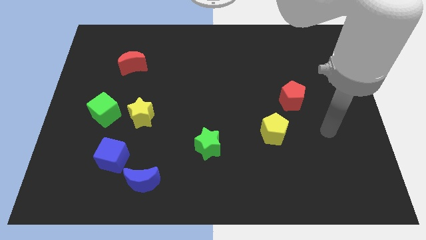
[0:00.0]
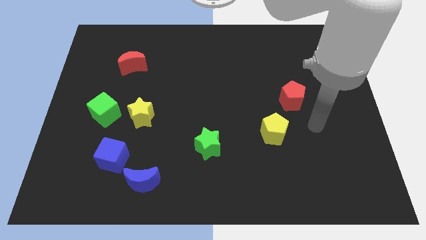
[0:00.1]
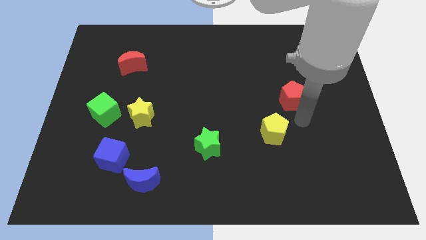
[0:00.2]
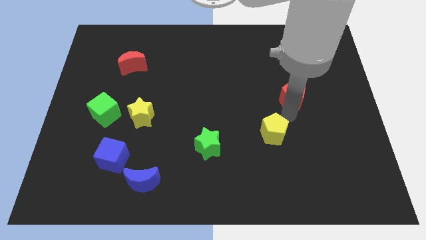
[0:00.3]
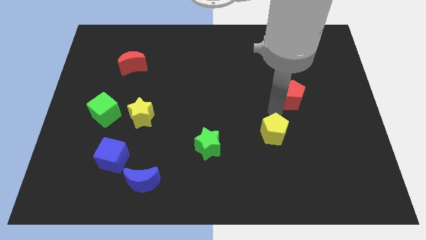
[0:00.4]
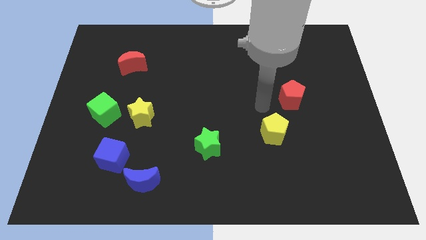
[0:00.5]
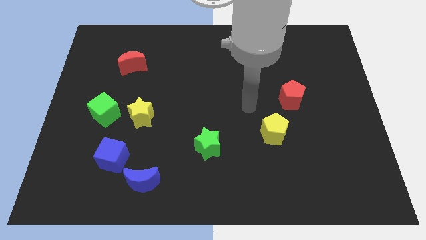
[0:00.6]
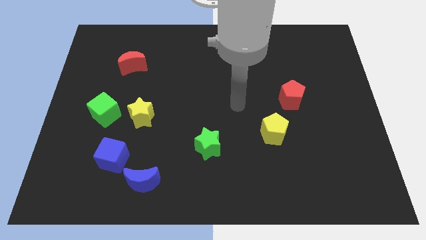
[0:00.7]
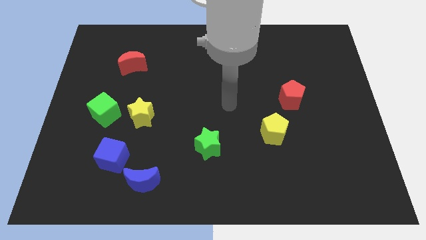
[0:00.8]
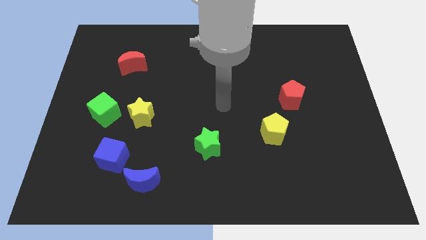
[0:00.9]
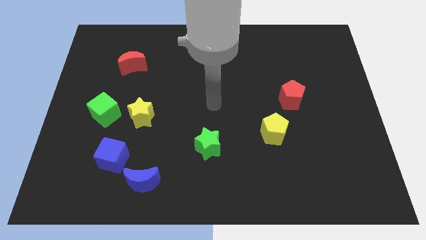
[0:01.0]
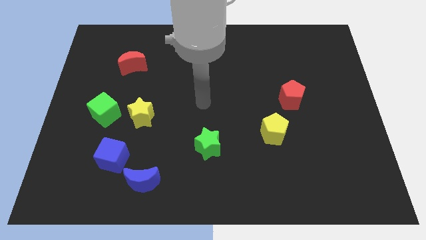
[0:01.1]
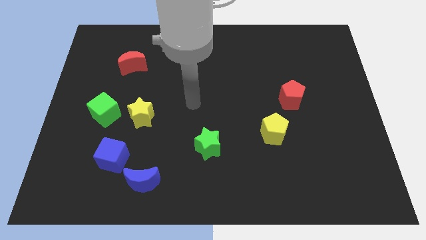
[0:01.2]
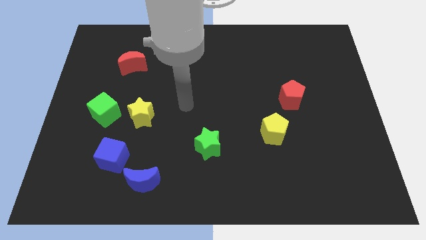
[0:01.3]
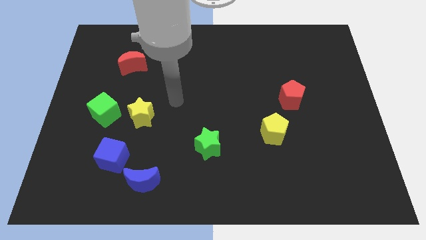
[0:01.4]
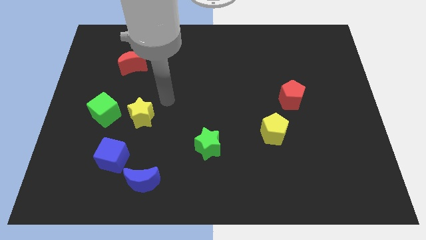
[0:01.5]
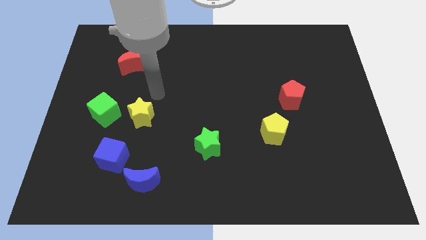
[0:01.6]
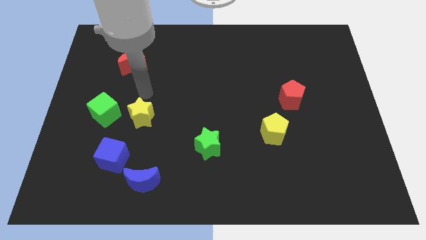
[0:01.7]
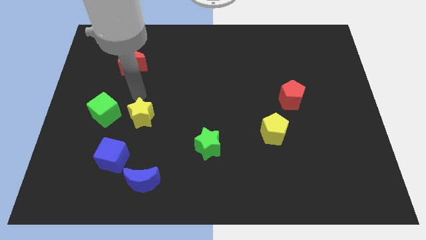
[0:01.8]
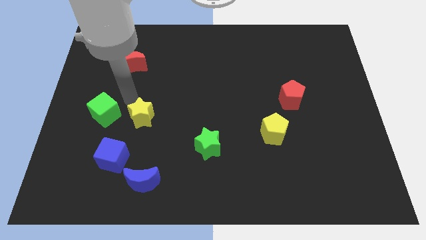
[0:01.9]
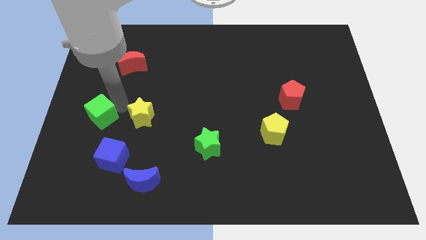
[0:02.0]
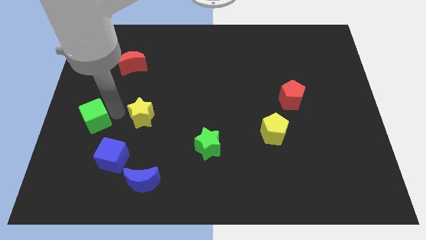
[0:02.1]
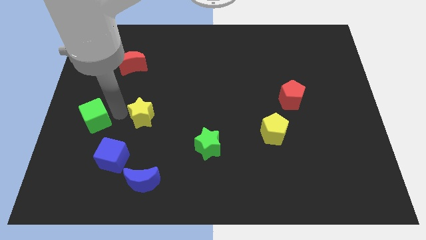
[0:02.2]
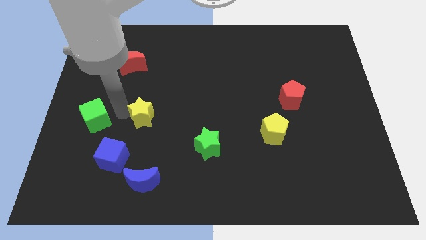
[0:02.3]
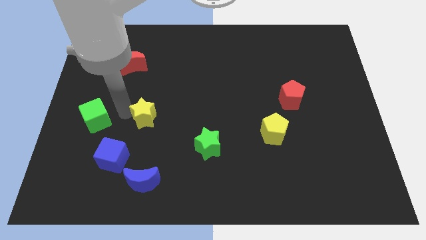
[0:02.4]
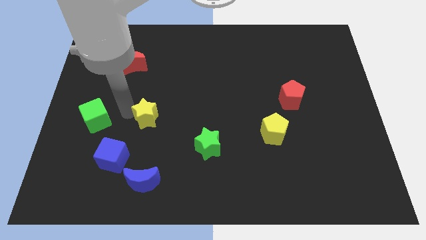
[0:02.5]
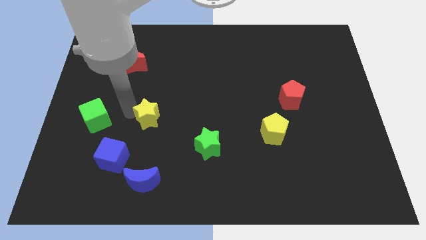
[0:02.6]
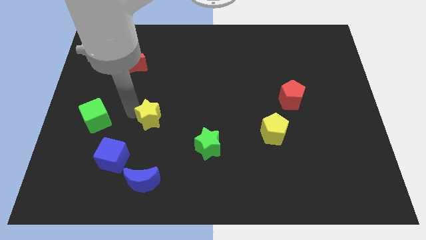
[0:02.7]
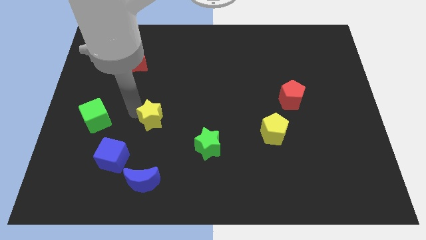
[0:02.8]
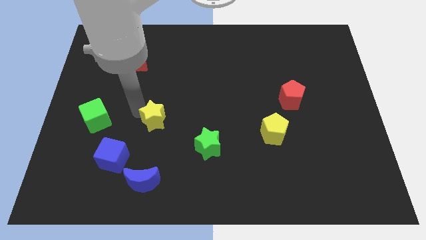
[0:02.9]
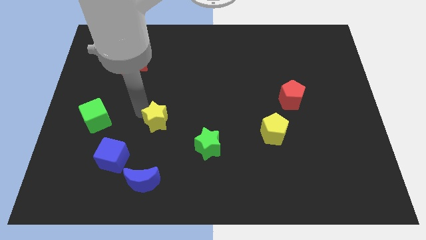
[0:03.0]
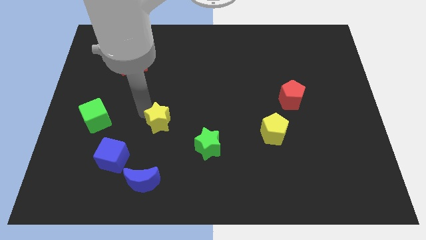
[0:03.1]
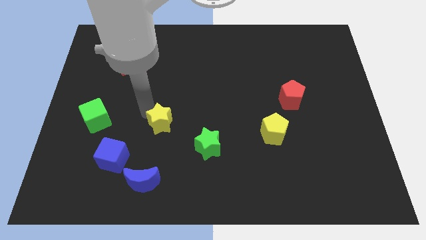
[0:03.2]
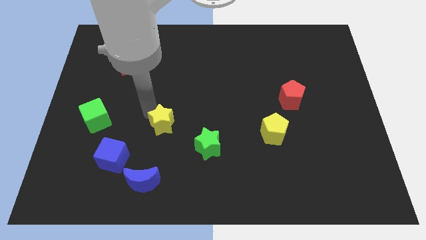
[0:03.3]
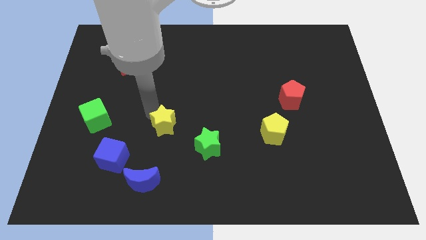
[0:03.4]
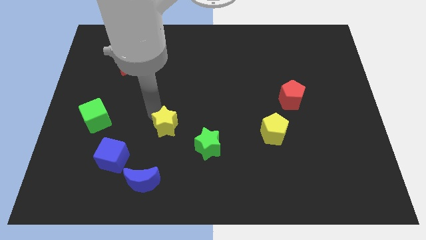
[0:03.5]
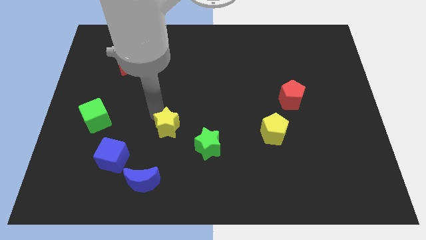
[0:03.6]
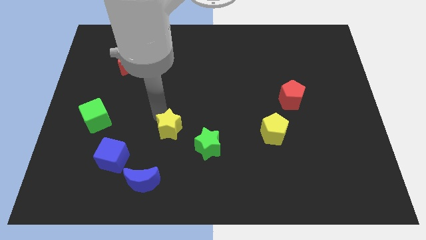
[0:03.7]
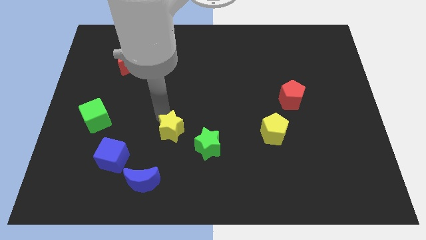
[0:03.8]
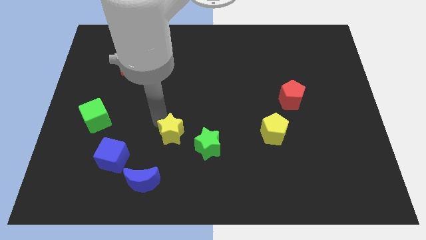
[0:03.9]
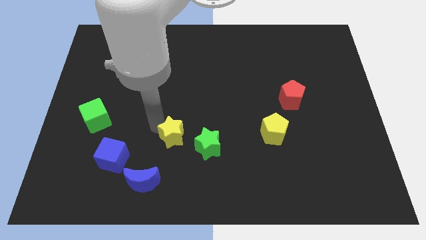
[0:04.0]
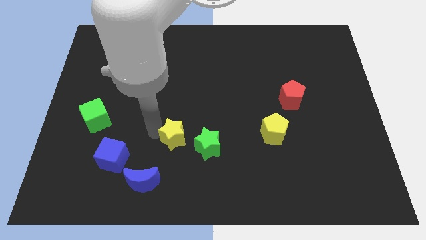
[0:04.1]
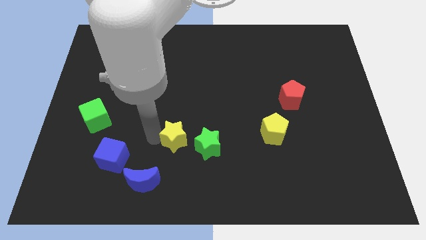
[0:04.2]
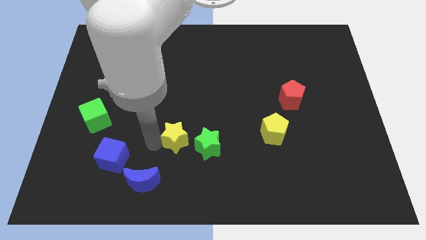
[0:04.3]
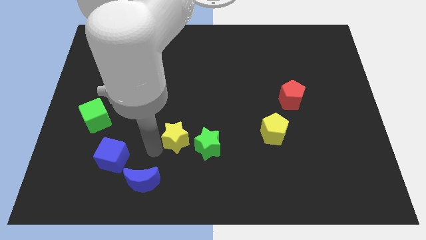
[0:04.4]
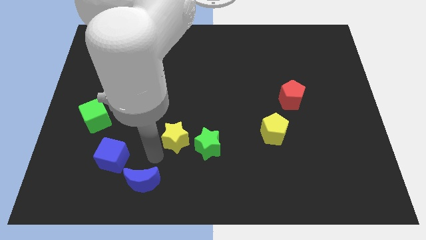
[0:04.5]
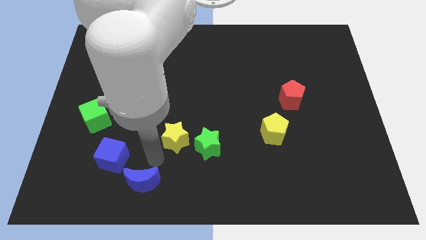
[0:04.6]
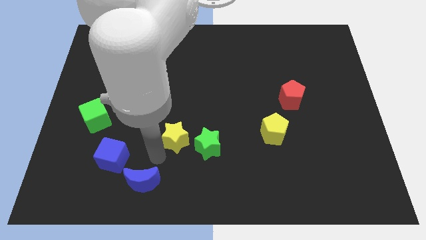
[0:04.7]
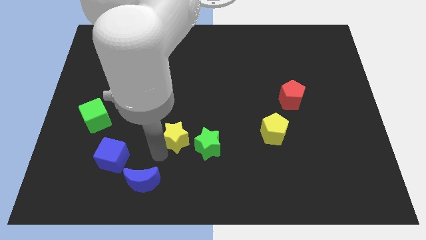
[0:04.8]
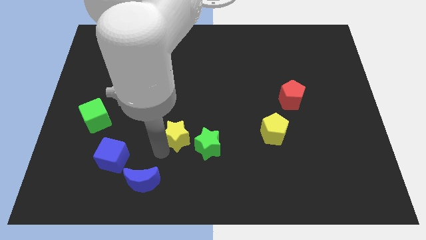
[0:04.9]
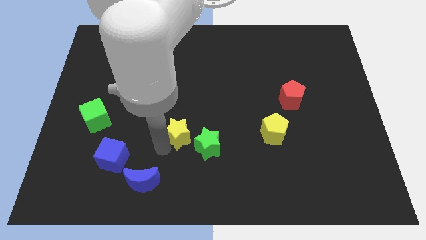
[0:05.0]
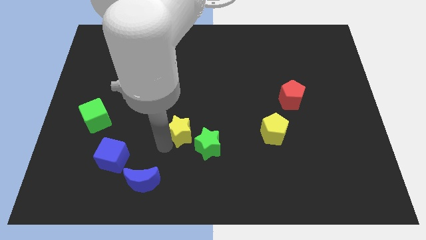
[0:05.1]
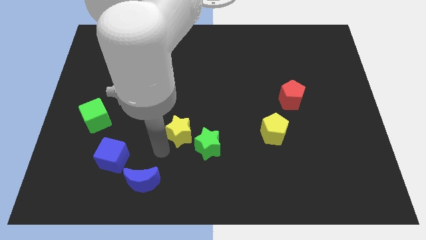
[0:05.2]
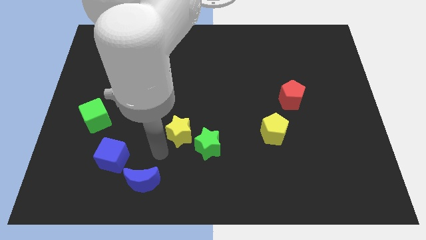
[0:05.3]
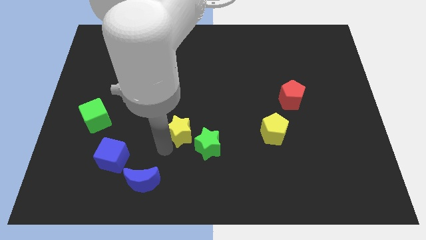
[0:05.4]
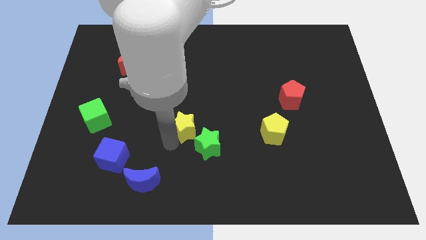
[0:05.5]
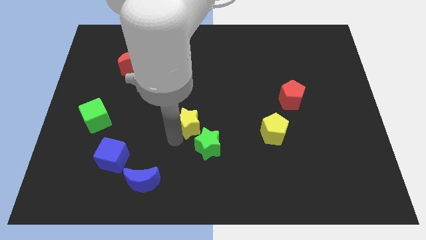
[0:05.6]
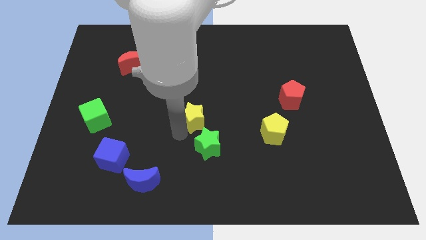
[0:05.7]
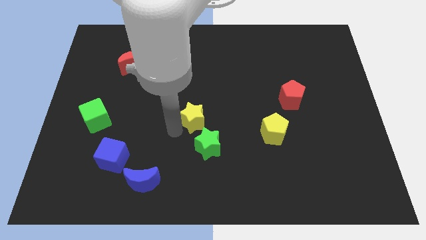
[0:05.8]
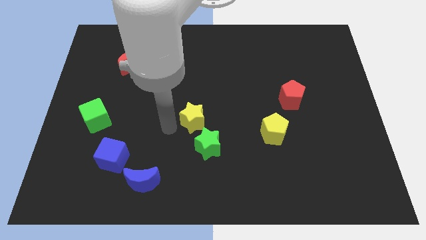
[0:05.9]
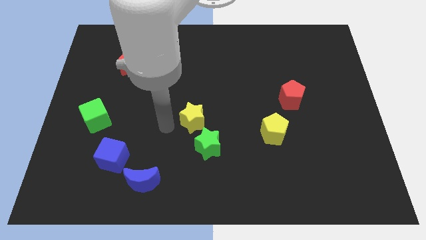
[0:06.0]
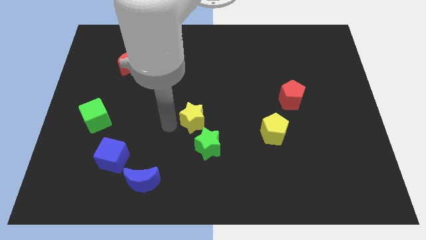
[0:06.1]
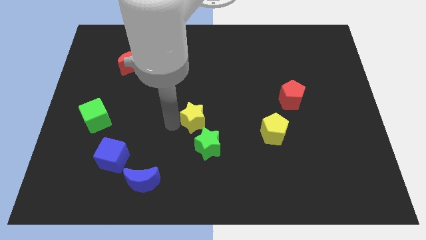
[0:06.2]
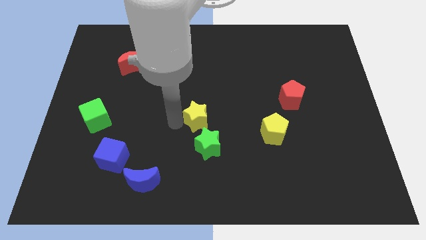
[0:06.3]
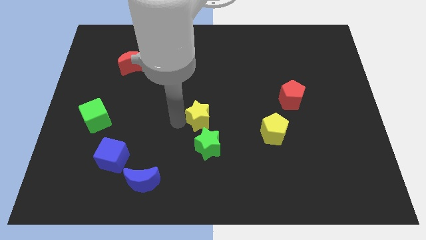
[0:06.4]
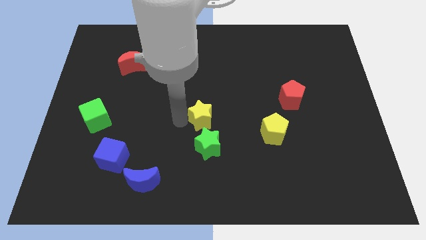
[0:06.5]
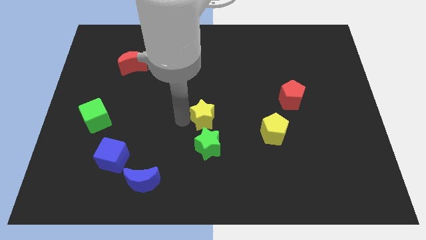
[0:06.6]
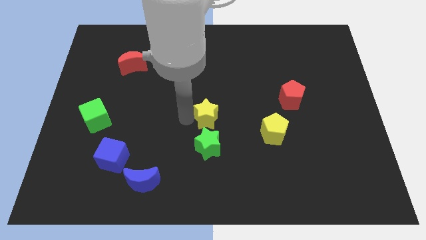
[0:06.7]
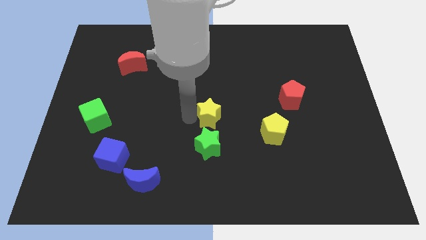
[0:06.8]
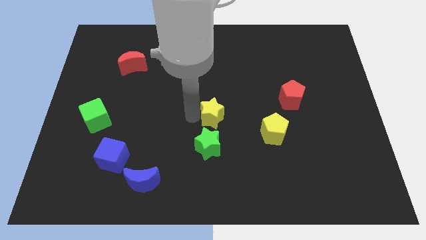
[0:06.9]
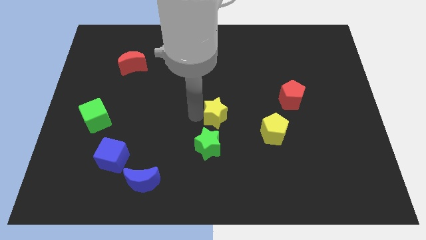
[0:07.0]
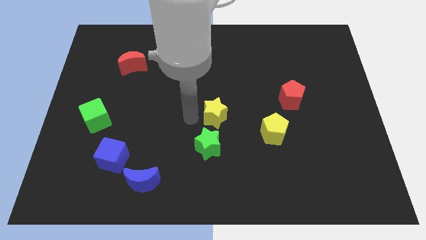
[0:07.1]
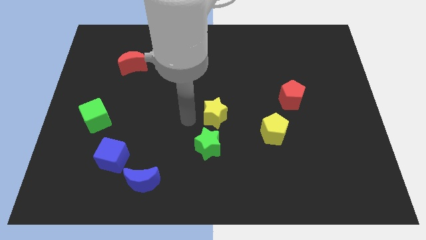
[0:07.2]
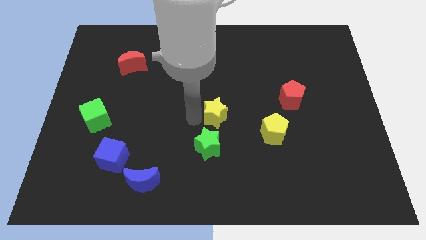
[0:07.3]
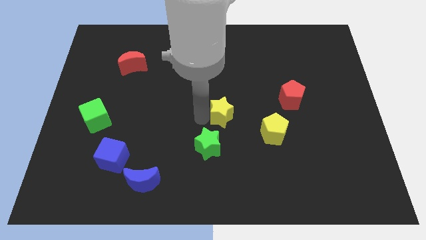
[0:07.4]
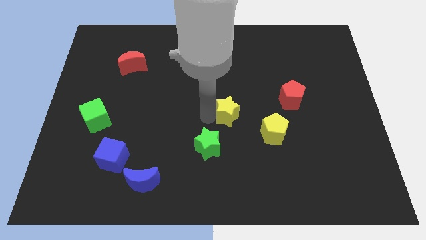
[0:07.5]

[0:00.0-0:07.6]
push the yellow star to the right

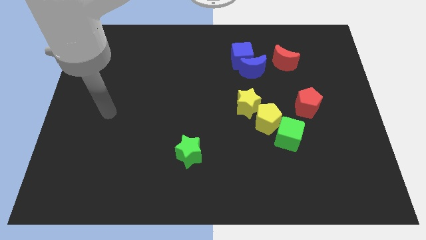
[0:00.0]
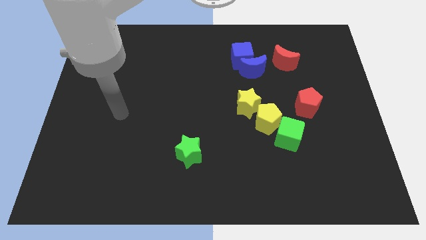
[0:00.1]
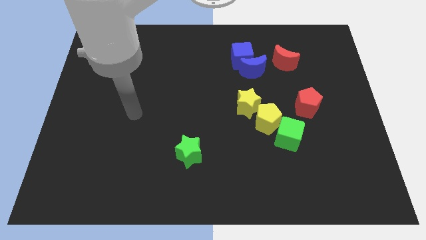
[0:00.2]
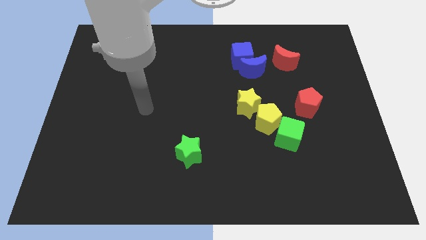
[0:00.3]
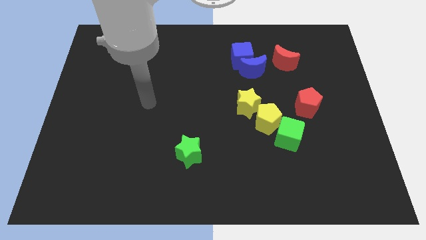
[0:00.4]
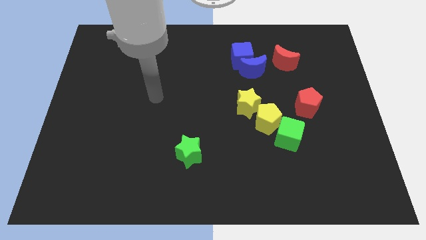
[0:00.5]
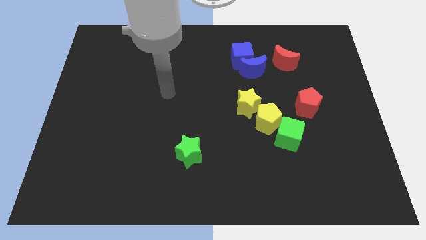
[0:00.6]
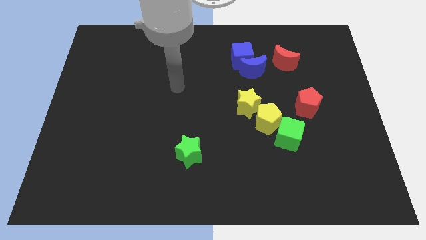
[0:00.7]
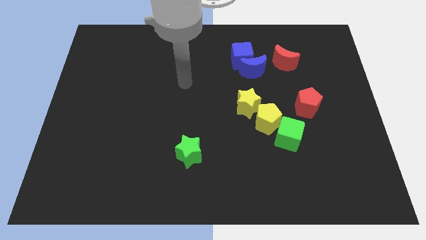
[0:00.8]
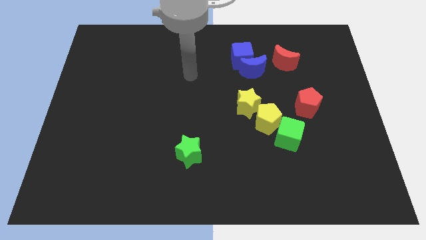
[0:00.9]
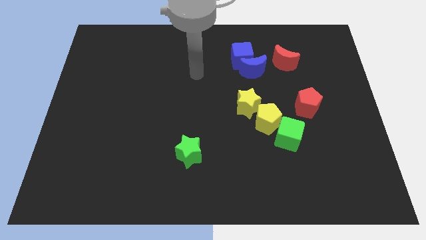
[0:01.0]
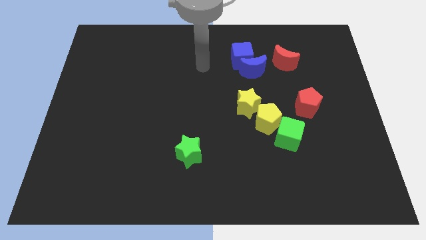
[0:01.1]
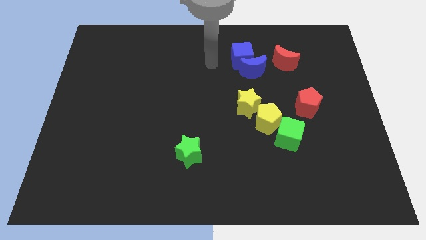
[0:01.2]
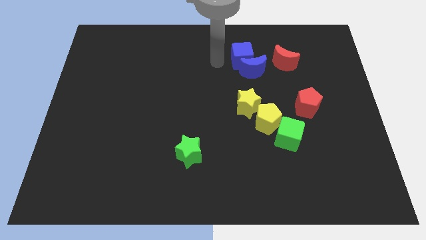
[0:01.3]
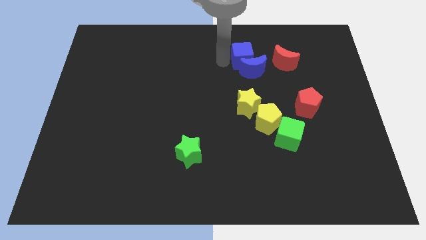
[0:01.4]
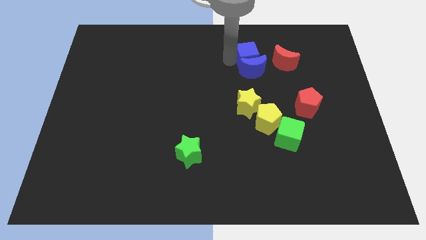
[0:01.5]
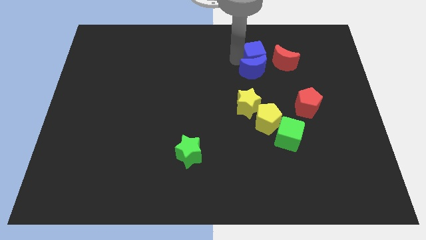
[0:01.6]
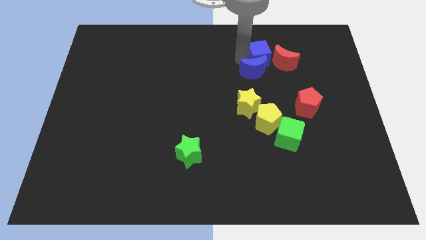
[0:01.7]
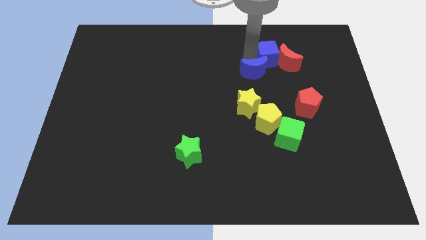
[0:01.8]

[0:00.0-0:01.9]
push the blue cube a little to the right
